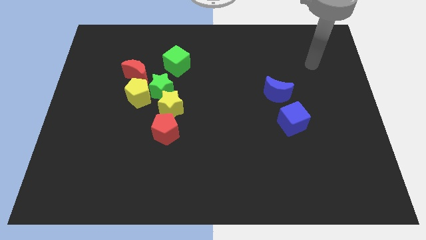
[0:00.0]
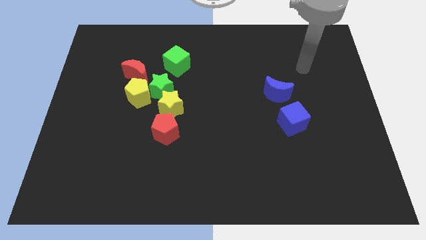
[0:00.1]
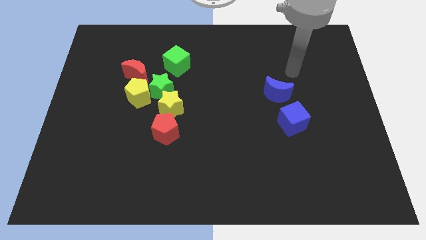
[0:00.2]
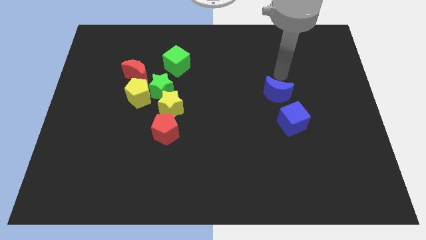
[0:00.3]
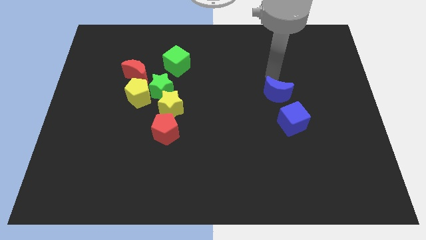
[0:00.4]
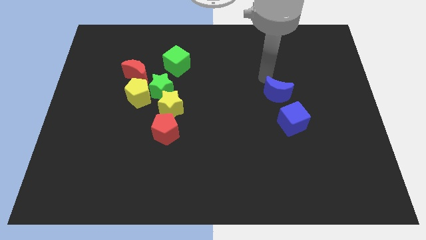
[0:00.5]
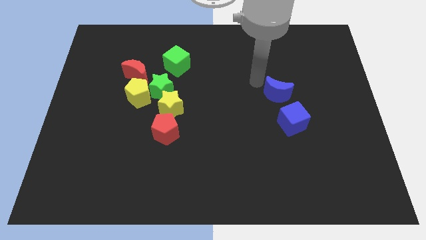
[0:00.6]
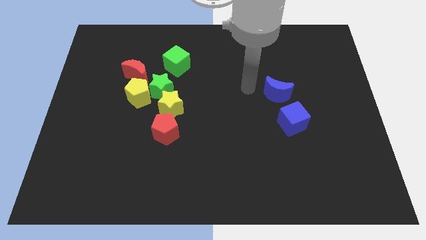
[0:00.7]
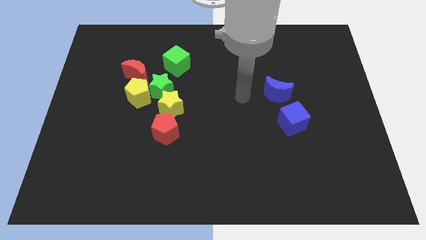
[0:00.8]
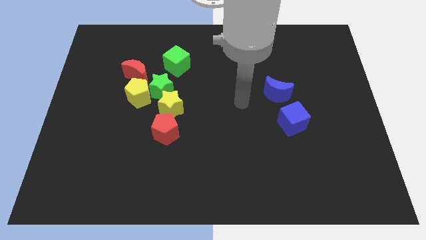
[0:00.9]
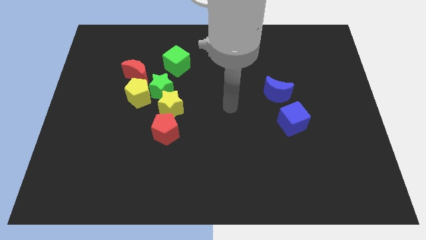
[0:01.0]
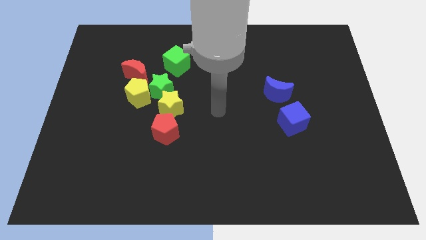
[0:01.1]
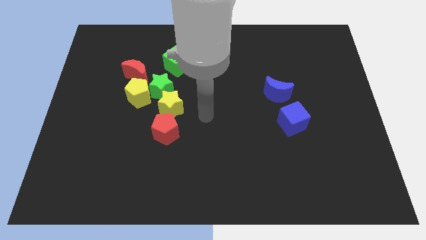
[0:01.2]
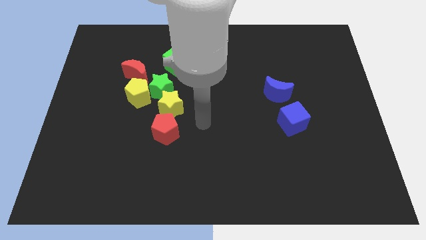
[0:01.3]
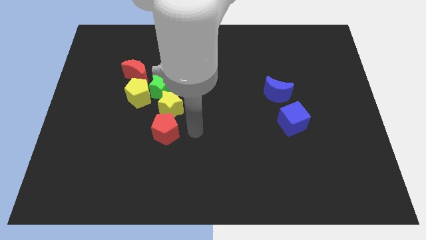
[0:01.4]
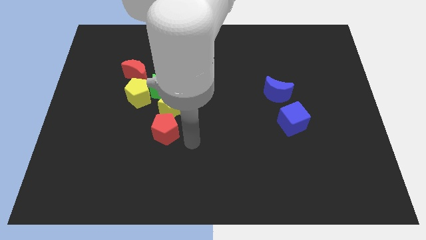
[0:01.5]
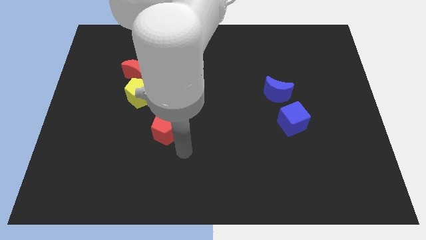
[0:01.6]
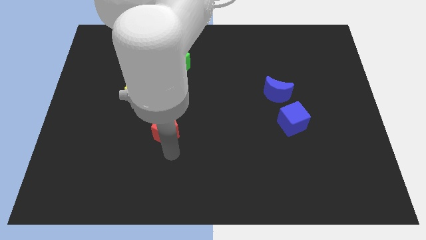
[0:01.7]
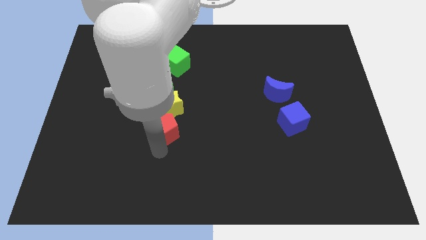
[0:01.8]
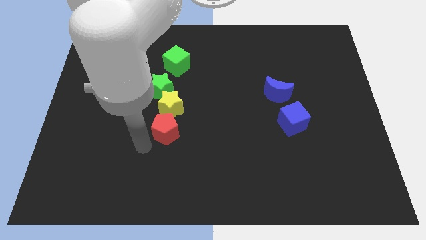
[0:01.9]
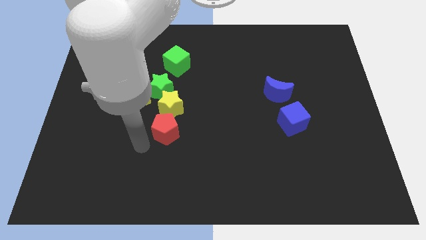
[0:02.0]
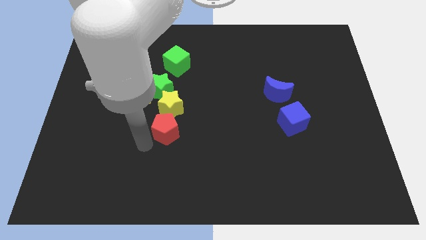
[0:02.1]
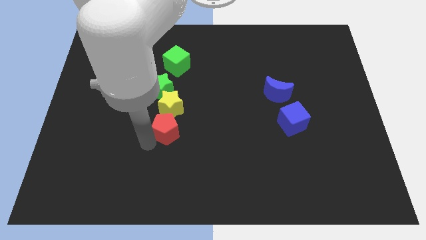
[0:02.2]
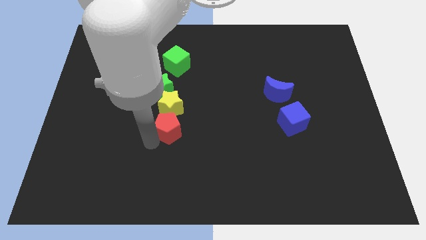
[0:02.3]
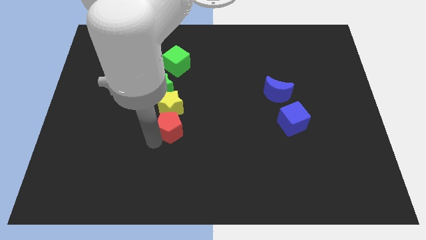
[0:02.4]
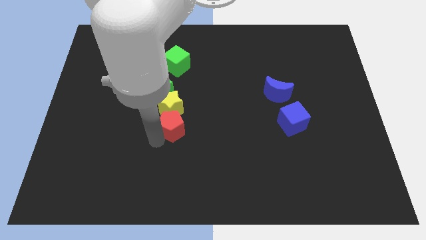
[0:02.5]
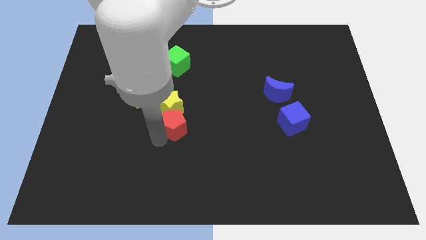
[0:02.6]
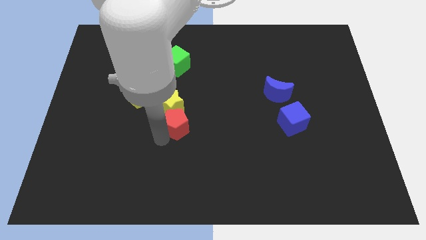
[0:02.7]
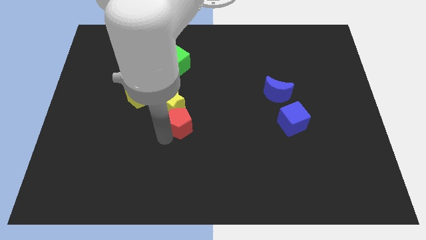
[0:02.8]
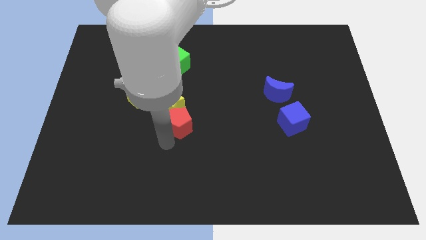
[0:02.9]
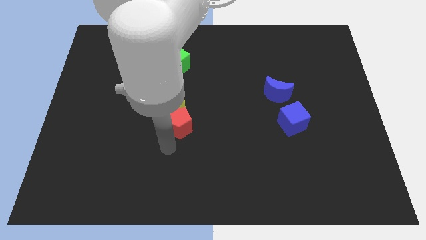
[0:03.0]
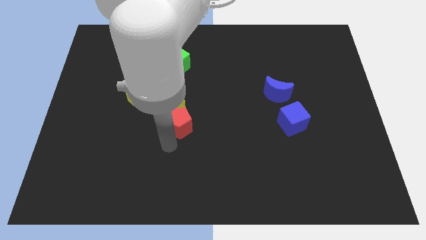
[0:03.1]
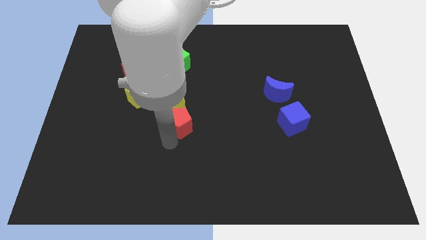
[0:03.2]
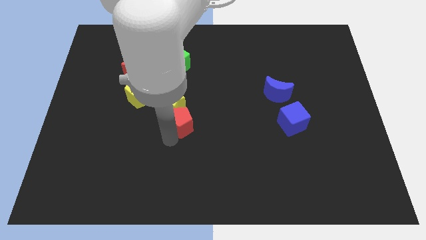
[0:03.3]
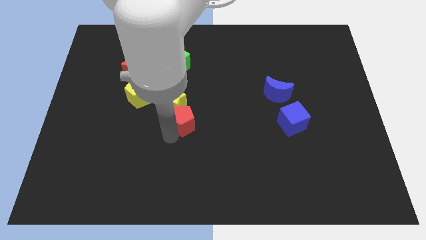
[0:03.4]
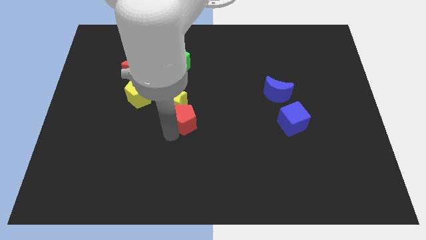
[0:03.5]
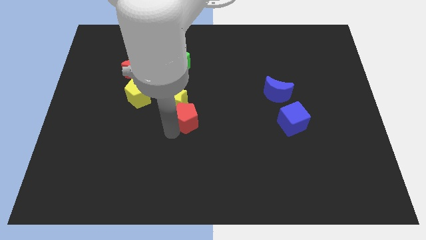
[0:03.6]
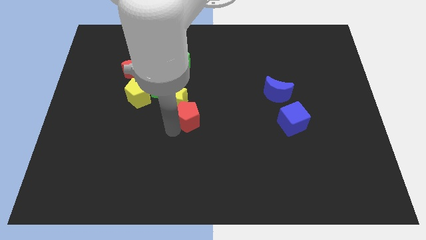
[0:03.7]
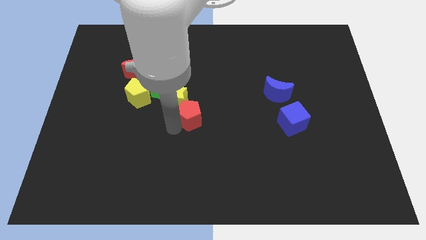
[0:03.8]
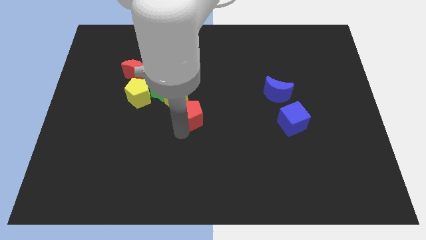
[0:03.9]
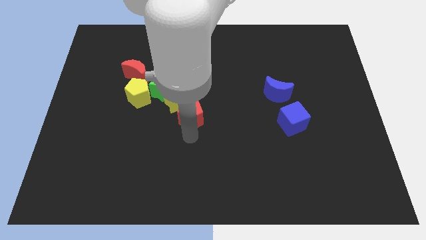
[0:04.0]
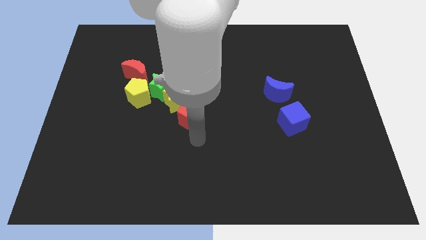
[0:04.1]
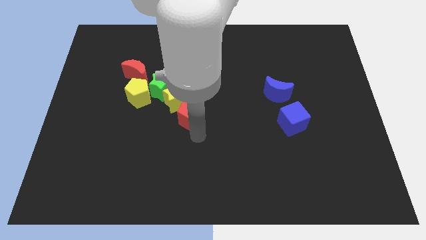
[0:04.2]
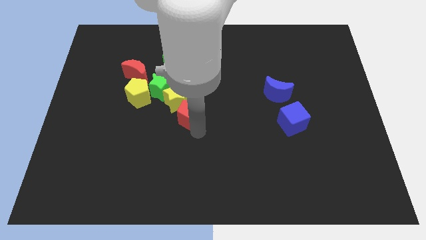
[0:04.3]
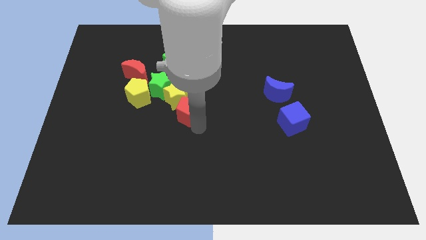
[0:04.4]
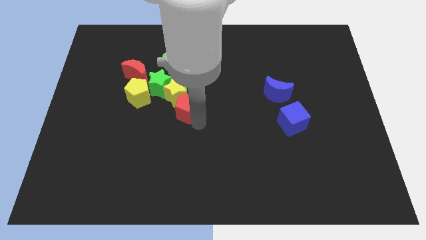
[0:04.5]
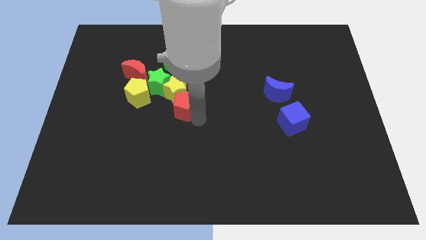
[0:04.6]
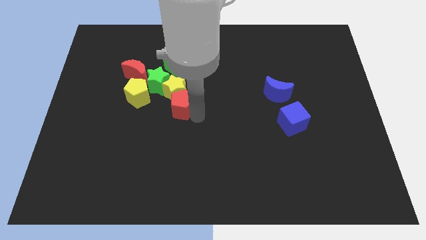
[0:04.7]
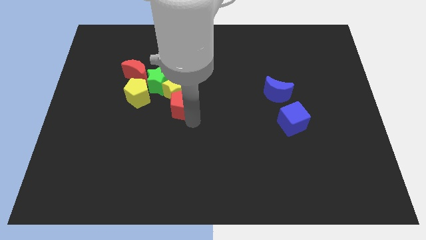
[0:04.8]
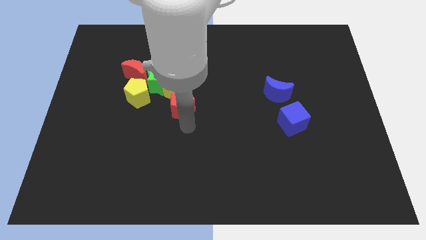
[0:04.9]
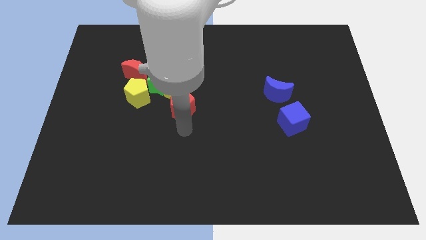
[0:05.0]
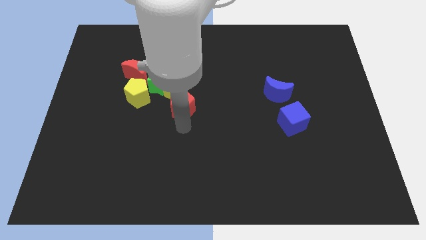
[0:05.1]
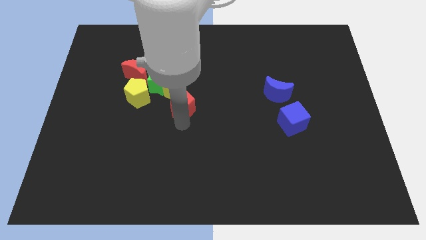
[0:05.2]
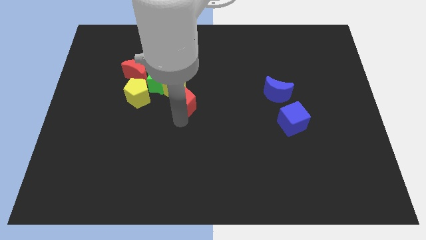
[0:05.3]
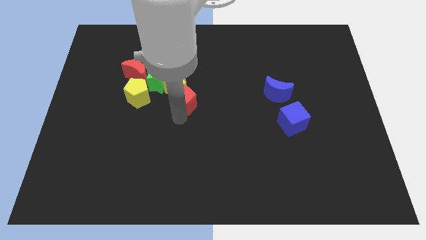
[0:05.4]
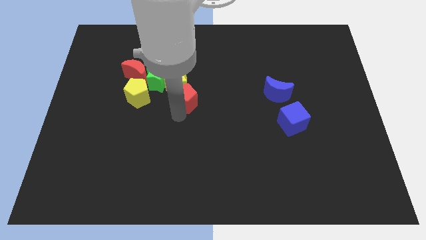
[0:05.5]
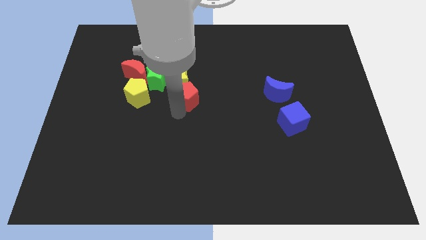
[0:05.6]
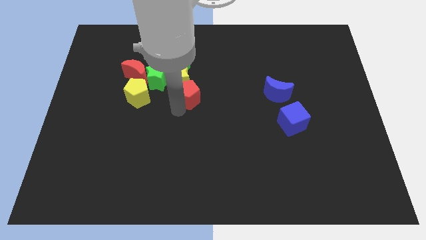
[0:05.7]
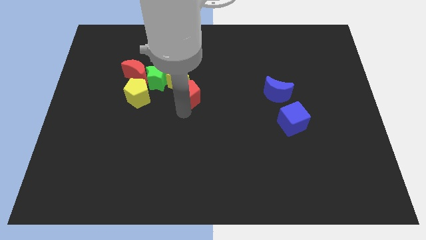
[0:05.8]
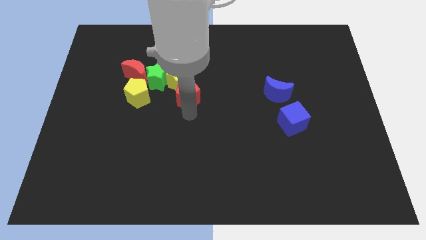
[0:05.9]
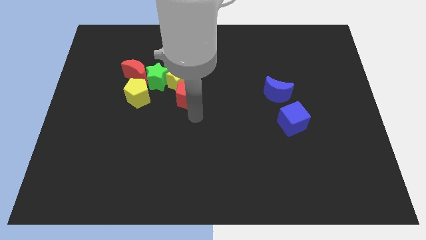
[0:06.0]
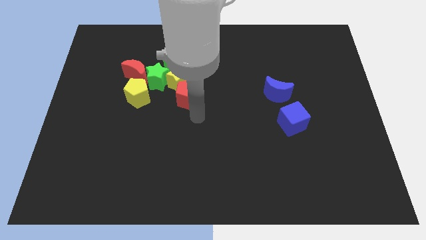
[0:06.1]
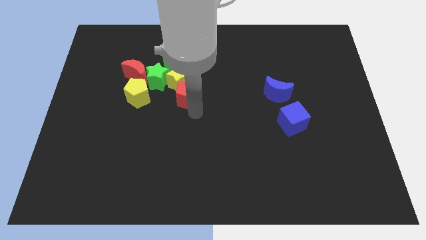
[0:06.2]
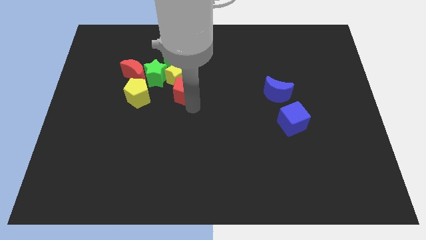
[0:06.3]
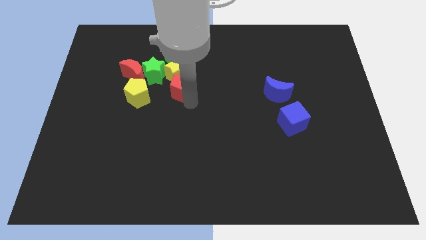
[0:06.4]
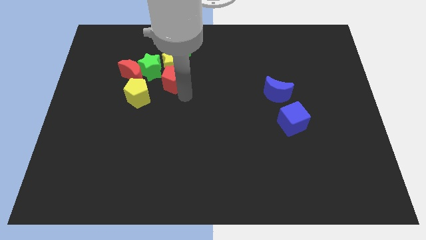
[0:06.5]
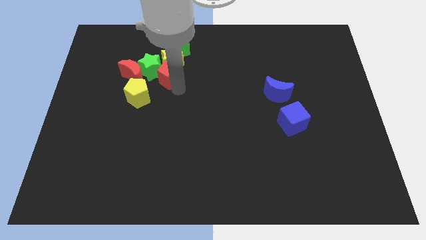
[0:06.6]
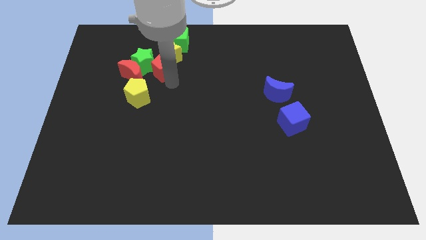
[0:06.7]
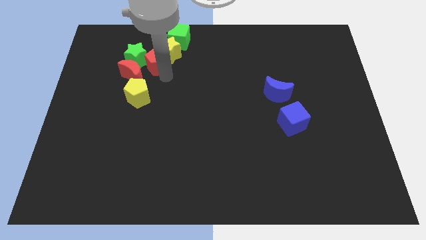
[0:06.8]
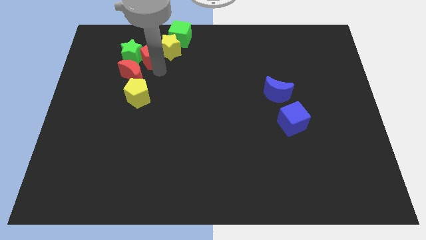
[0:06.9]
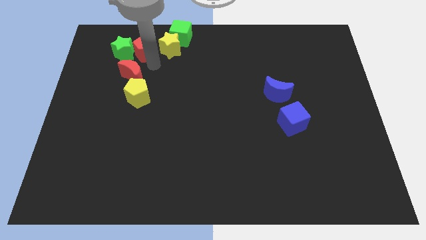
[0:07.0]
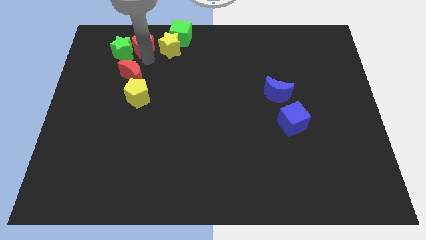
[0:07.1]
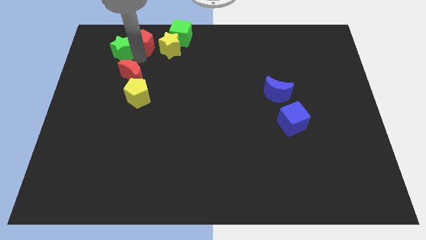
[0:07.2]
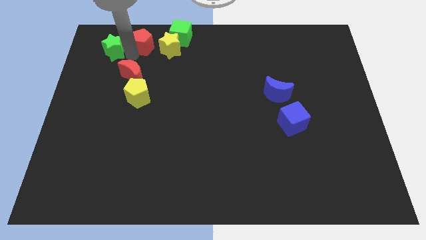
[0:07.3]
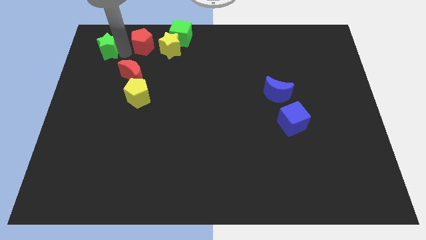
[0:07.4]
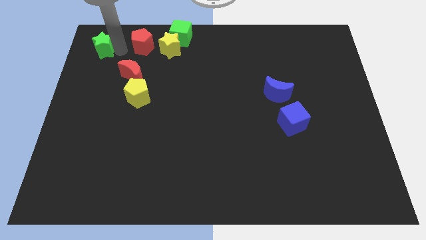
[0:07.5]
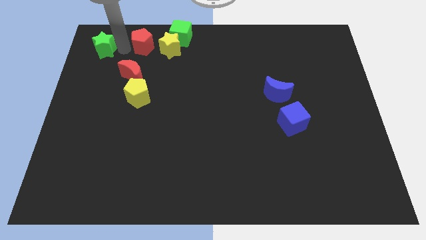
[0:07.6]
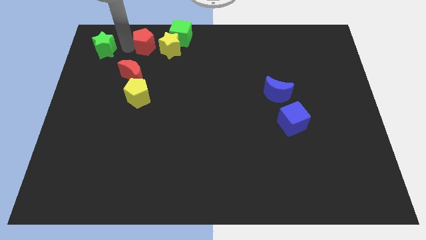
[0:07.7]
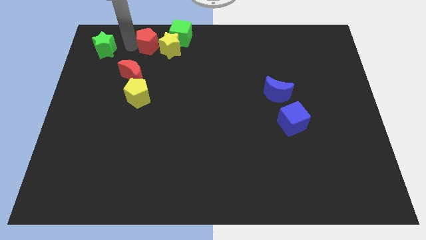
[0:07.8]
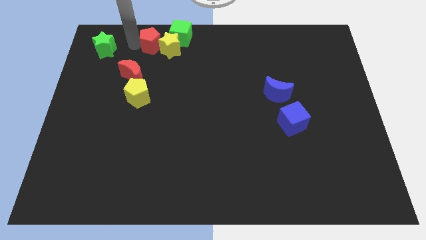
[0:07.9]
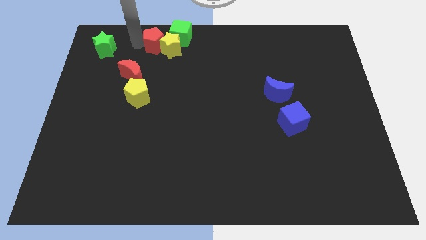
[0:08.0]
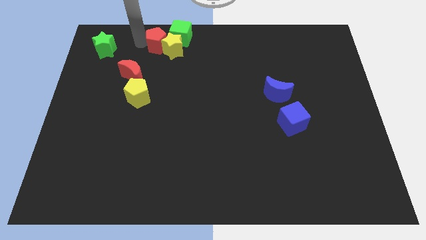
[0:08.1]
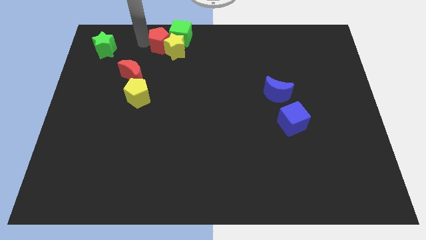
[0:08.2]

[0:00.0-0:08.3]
slide the red pentagon close to the green cube
